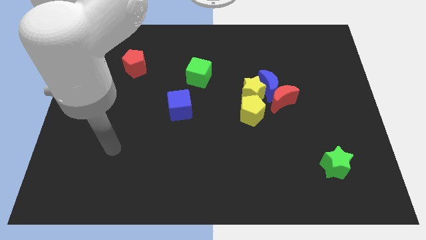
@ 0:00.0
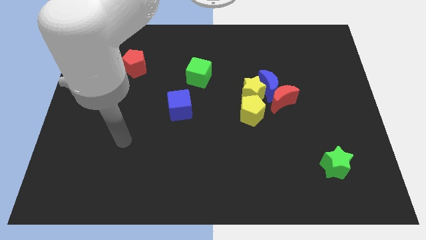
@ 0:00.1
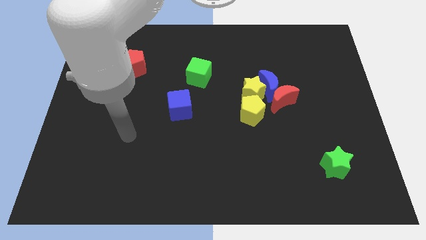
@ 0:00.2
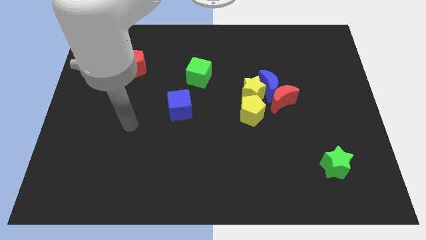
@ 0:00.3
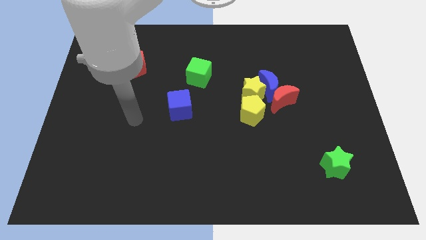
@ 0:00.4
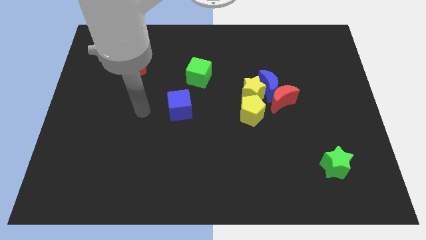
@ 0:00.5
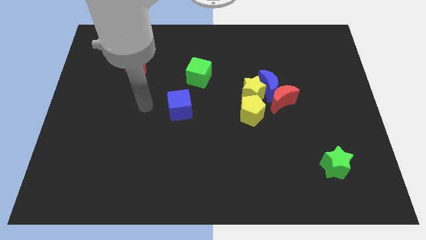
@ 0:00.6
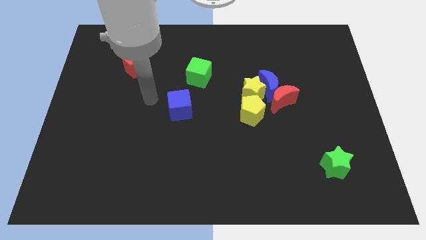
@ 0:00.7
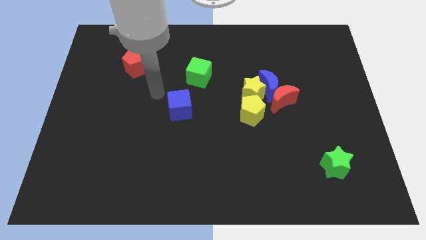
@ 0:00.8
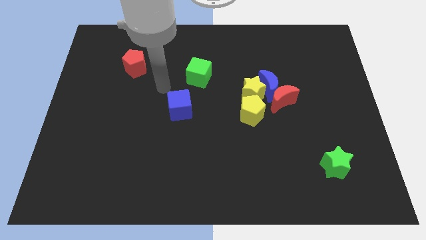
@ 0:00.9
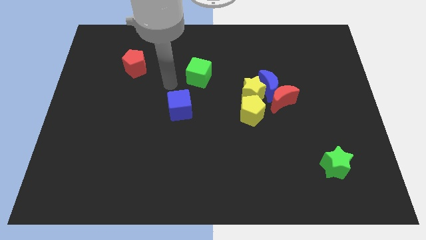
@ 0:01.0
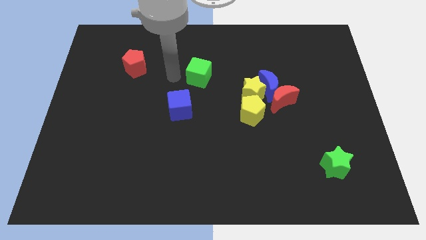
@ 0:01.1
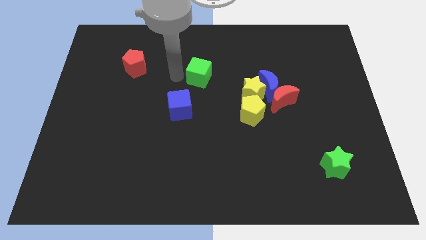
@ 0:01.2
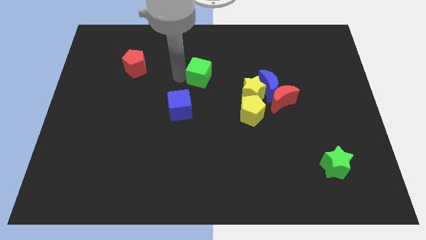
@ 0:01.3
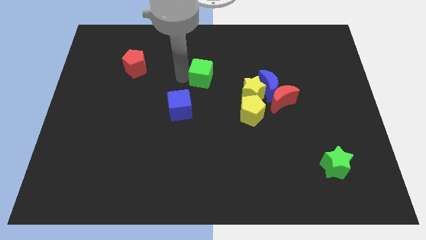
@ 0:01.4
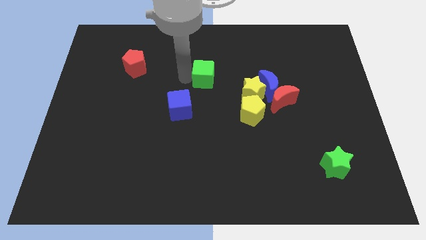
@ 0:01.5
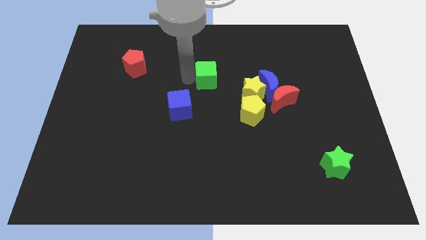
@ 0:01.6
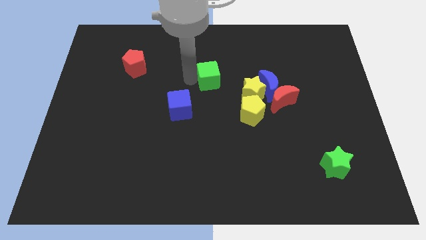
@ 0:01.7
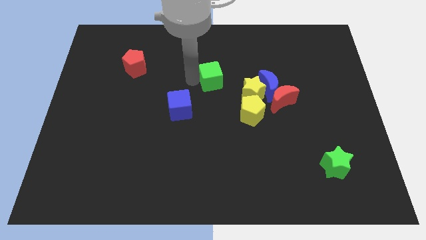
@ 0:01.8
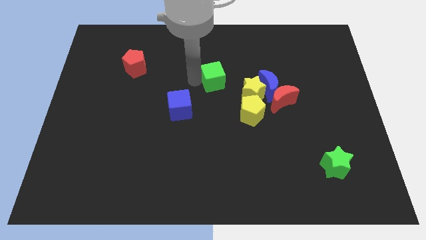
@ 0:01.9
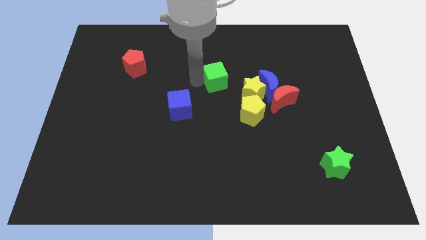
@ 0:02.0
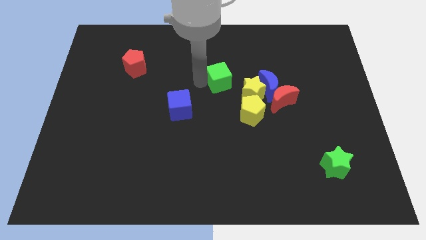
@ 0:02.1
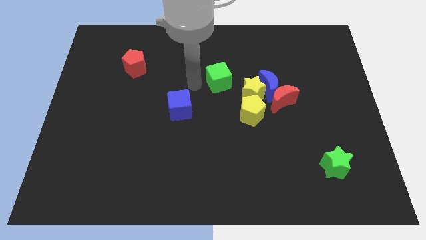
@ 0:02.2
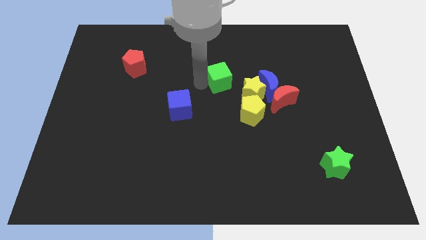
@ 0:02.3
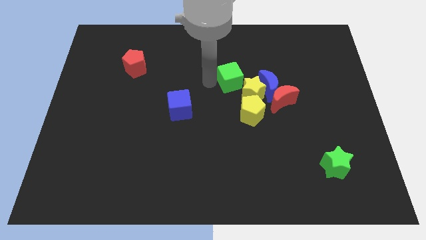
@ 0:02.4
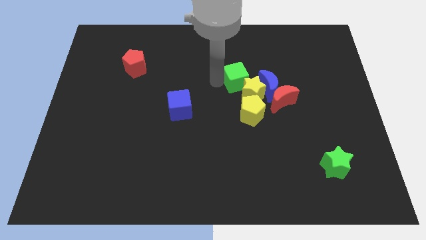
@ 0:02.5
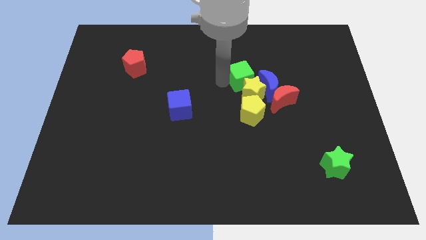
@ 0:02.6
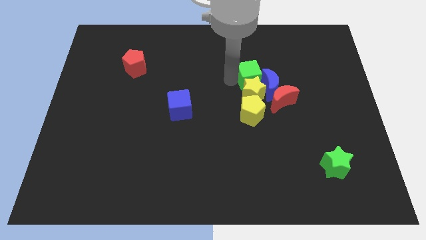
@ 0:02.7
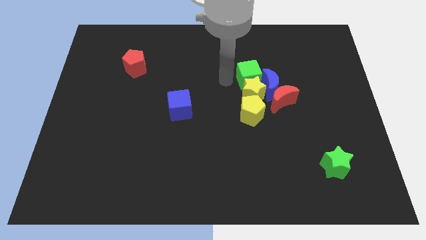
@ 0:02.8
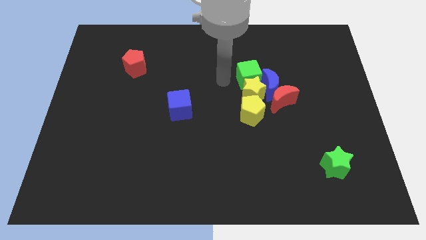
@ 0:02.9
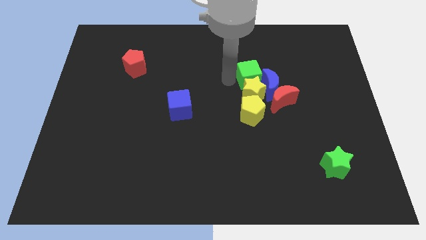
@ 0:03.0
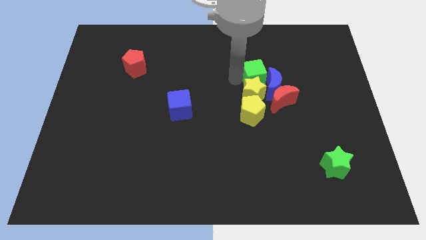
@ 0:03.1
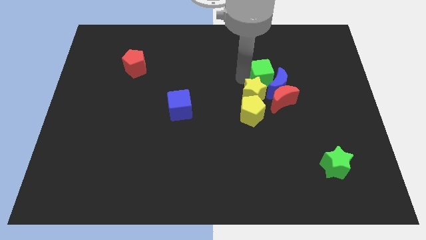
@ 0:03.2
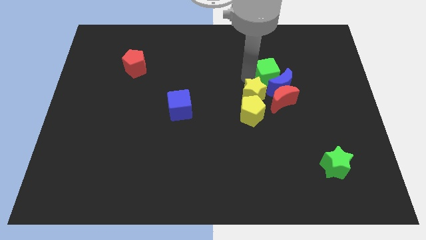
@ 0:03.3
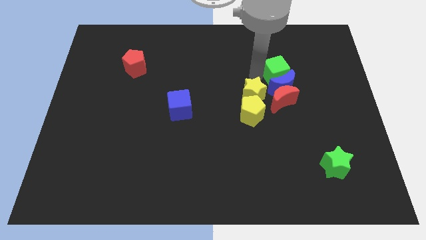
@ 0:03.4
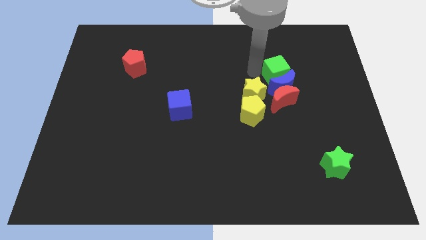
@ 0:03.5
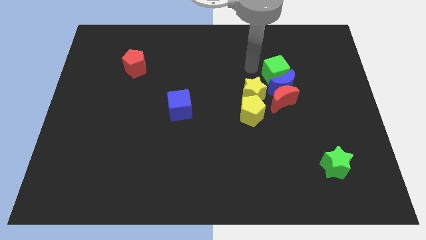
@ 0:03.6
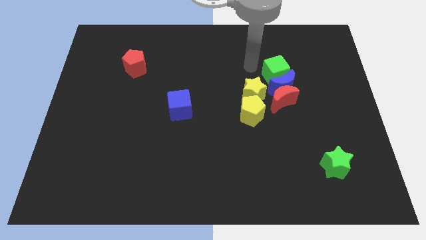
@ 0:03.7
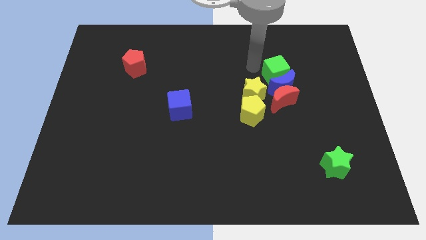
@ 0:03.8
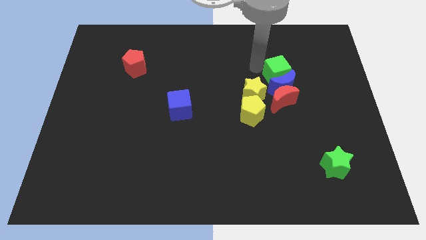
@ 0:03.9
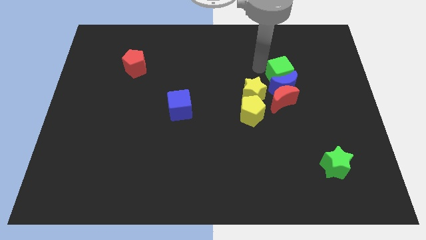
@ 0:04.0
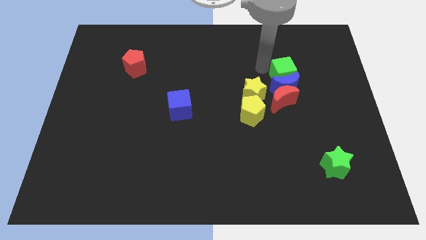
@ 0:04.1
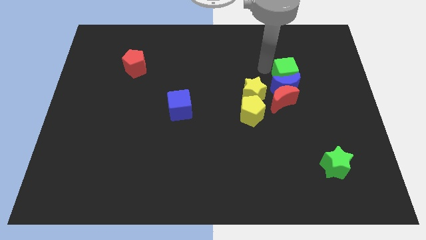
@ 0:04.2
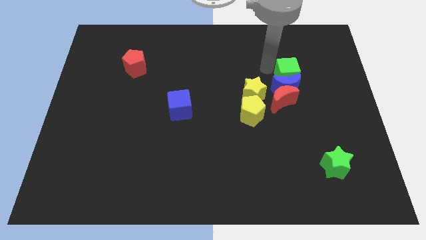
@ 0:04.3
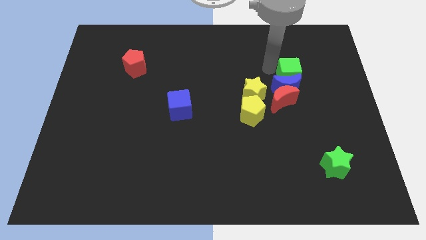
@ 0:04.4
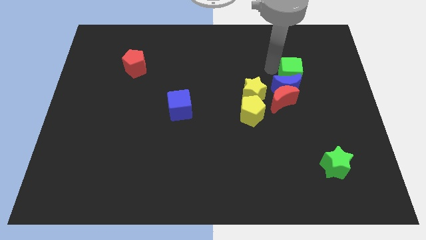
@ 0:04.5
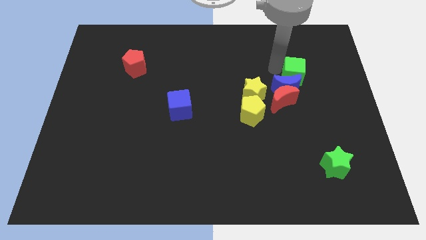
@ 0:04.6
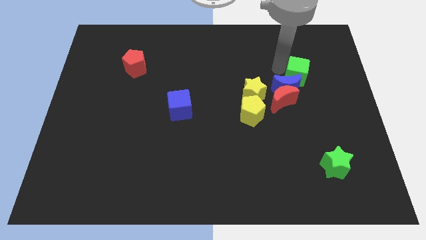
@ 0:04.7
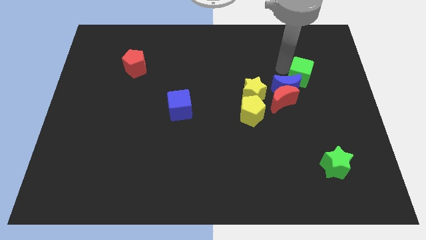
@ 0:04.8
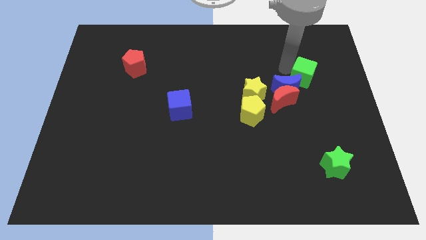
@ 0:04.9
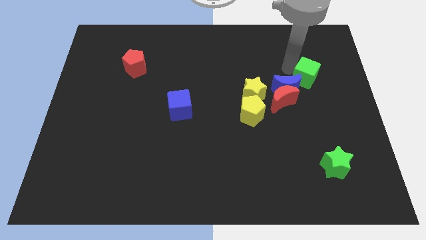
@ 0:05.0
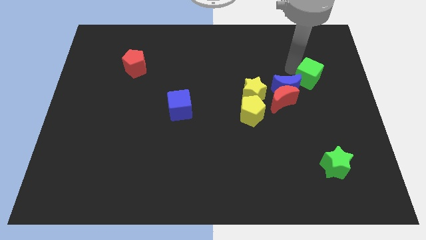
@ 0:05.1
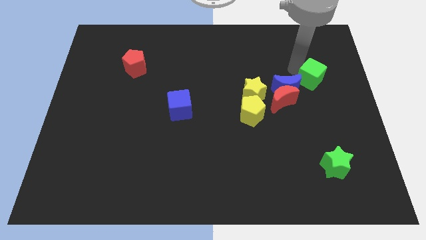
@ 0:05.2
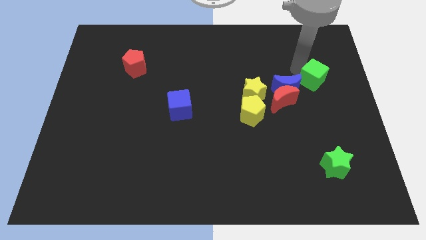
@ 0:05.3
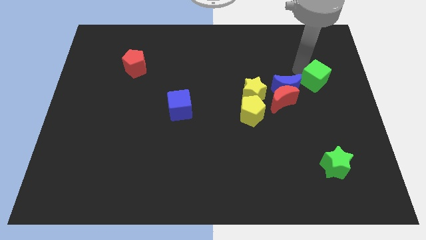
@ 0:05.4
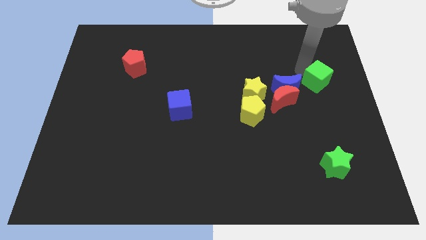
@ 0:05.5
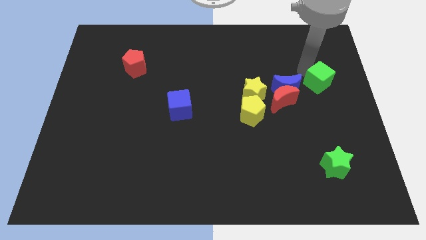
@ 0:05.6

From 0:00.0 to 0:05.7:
slide the green cube to the right side of the board
